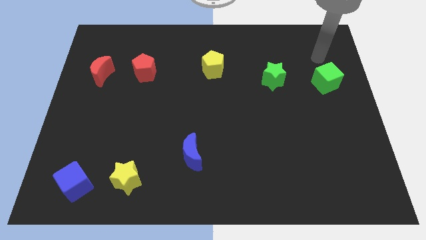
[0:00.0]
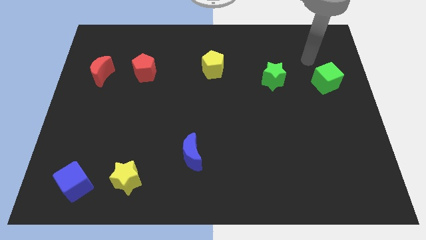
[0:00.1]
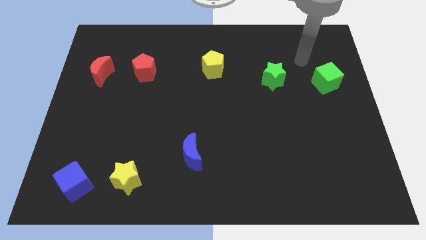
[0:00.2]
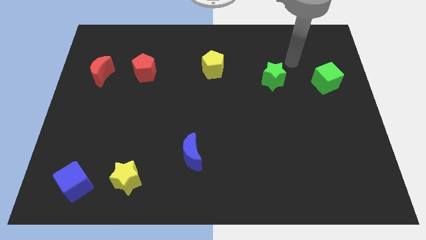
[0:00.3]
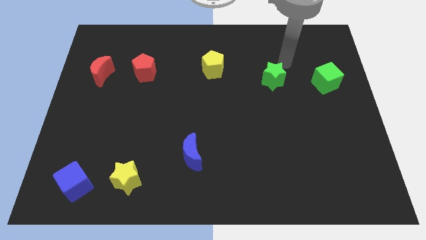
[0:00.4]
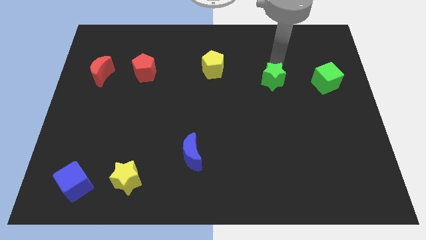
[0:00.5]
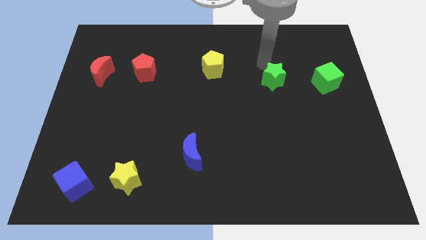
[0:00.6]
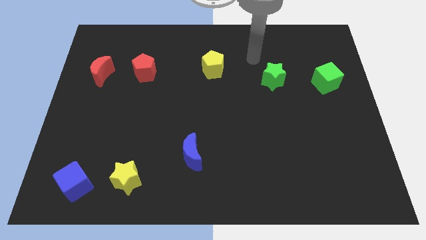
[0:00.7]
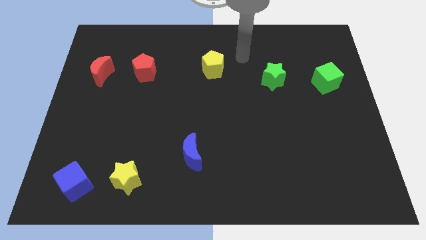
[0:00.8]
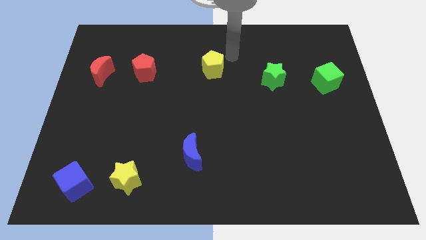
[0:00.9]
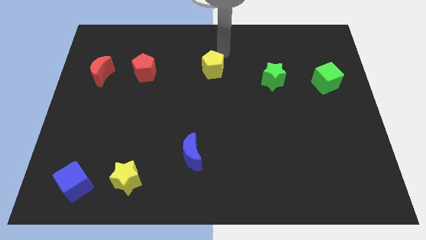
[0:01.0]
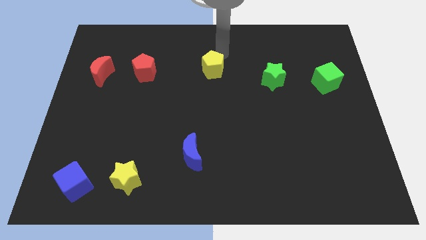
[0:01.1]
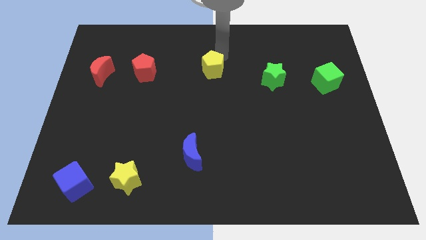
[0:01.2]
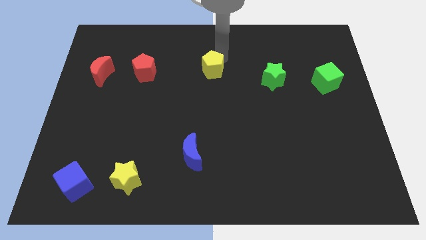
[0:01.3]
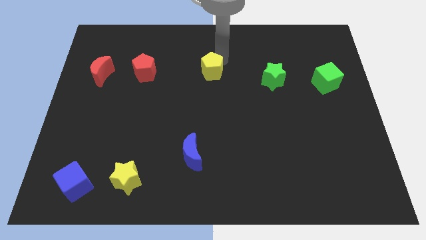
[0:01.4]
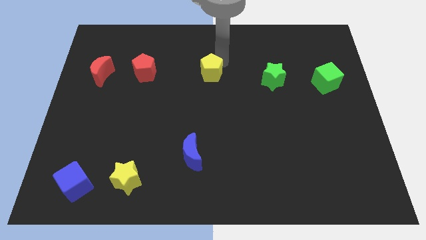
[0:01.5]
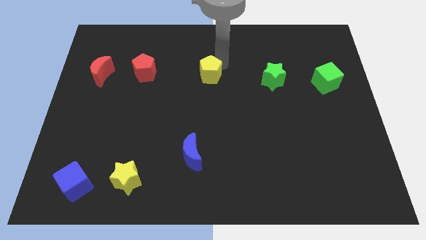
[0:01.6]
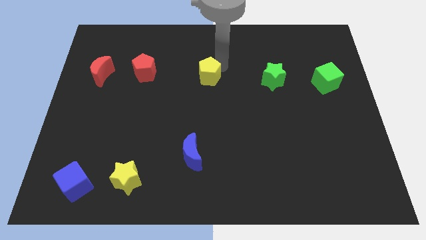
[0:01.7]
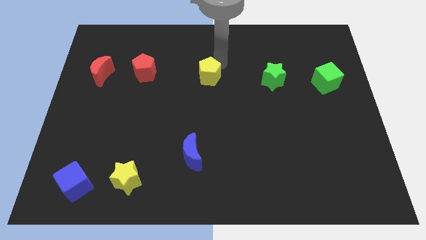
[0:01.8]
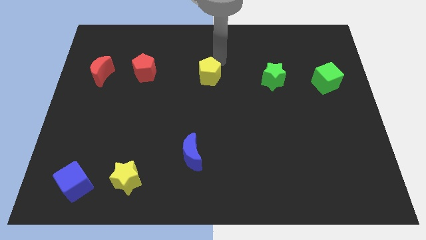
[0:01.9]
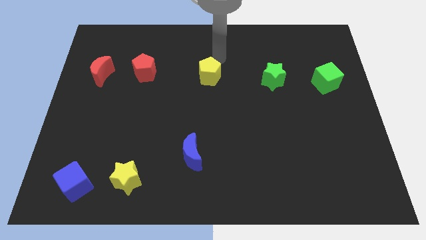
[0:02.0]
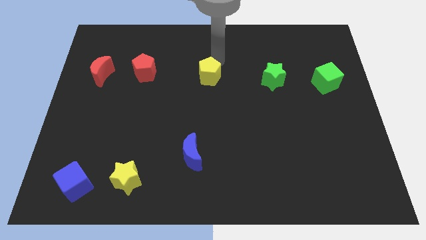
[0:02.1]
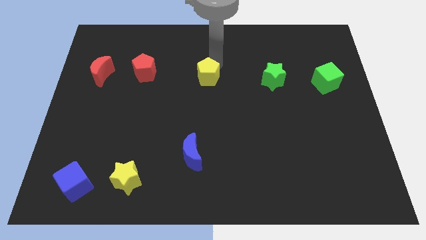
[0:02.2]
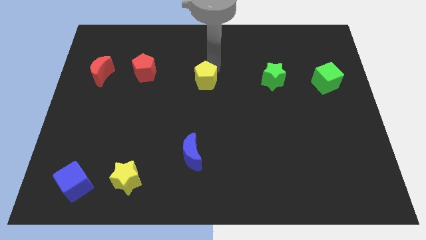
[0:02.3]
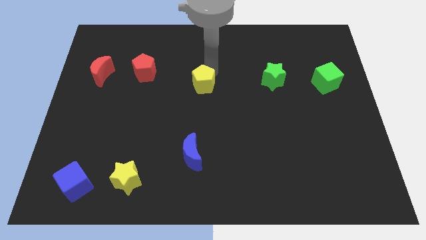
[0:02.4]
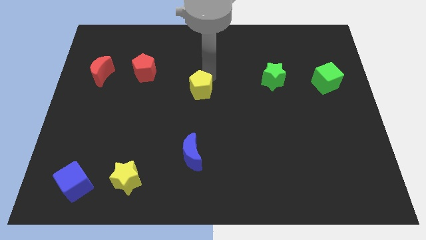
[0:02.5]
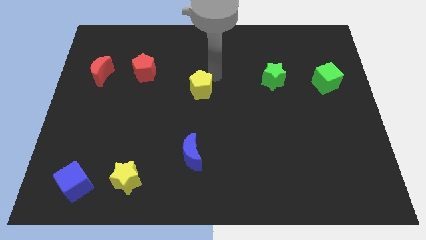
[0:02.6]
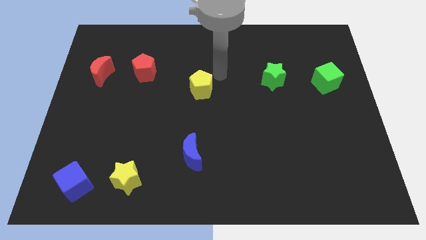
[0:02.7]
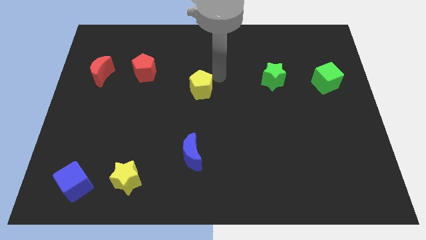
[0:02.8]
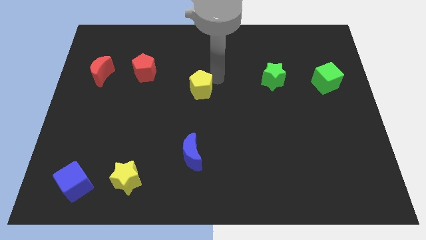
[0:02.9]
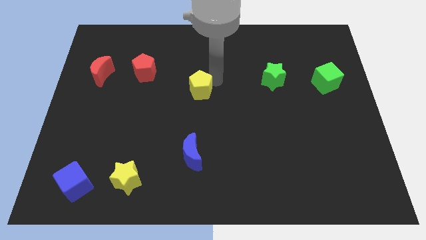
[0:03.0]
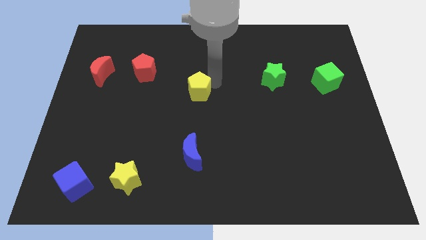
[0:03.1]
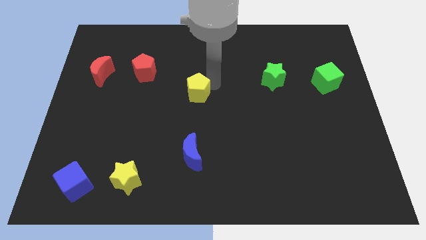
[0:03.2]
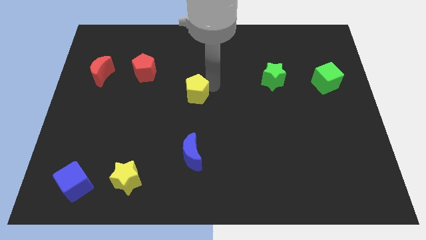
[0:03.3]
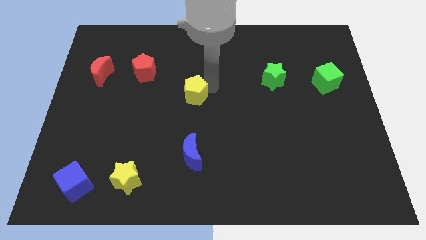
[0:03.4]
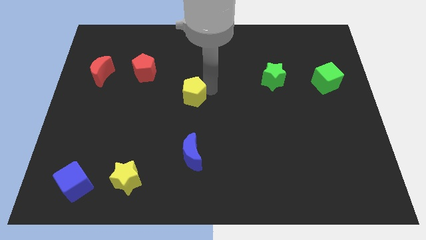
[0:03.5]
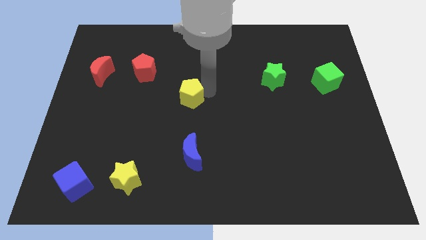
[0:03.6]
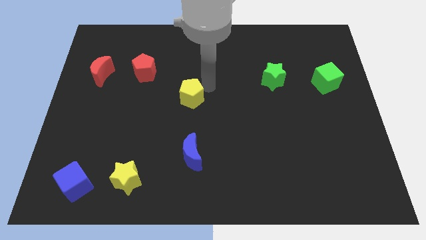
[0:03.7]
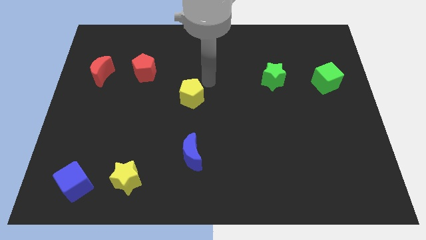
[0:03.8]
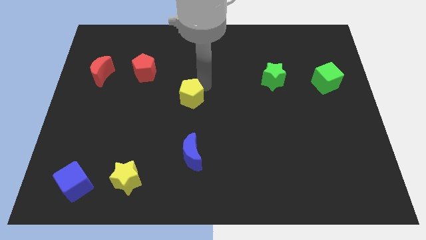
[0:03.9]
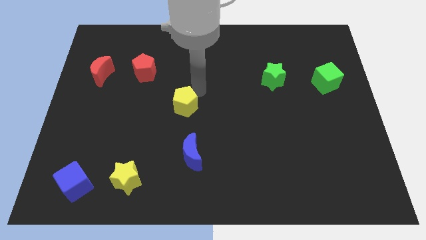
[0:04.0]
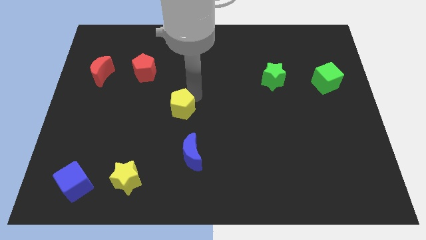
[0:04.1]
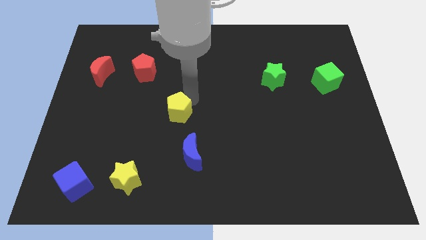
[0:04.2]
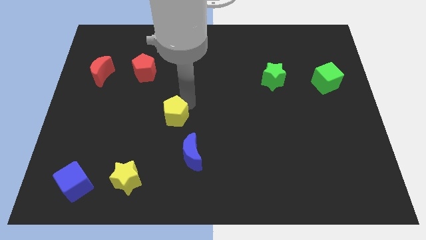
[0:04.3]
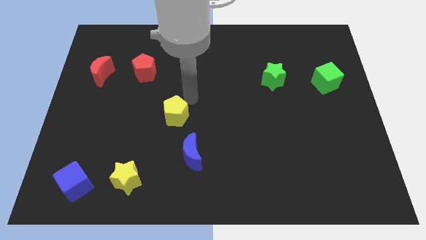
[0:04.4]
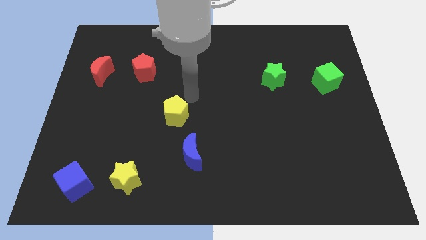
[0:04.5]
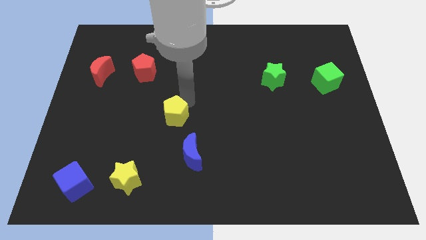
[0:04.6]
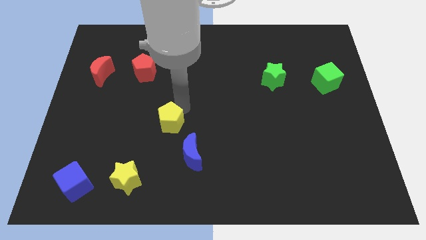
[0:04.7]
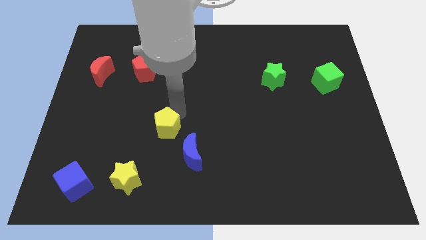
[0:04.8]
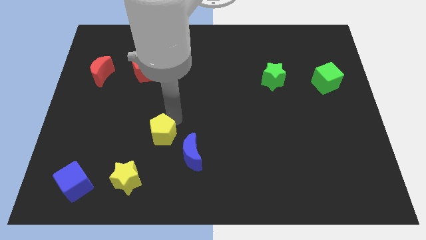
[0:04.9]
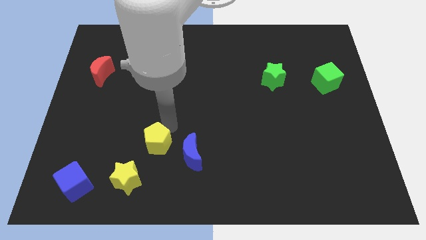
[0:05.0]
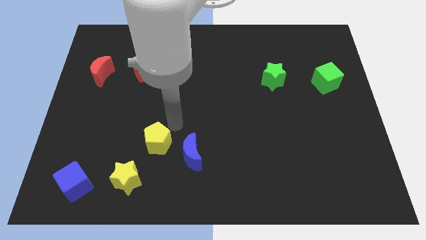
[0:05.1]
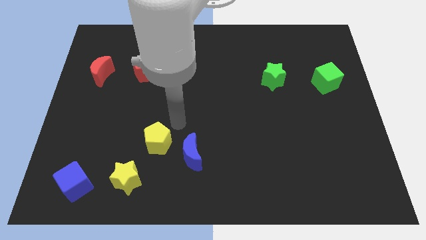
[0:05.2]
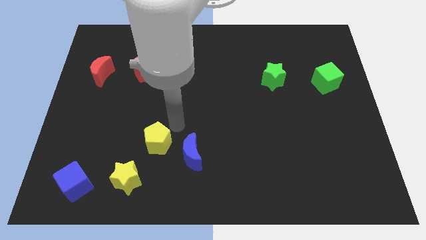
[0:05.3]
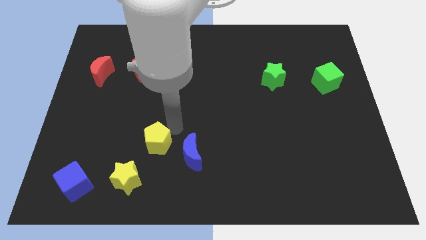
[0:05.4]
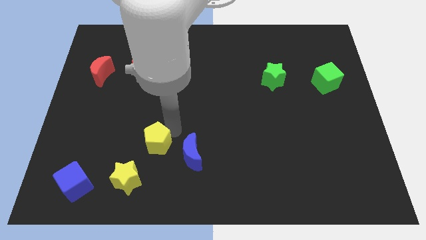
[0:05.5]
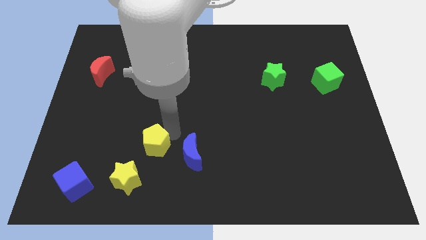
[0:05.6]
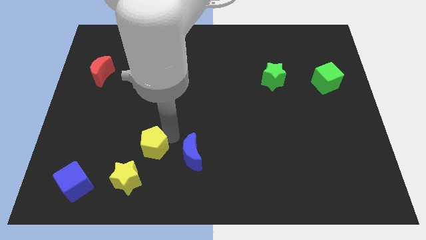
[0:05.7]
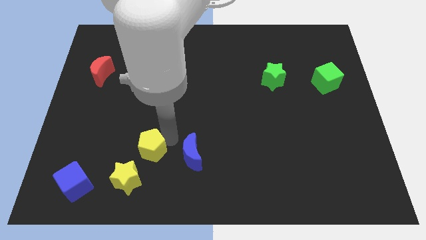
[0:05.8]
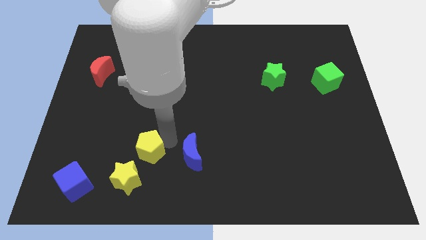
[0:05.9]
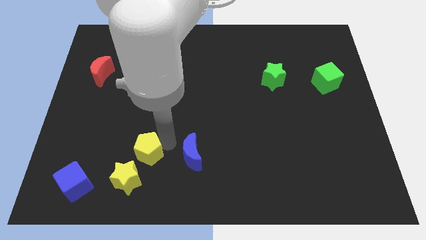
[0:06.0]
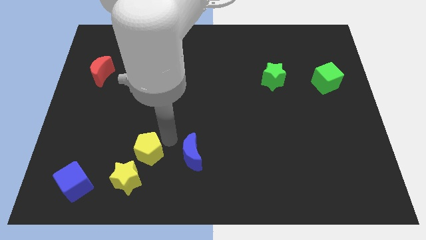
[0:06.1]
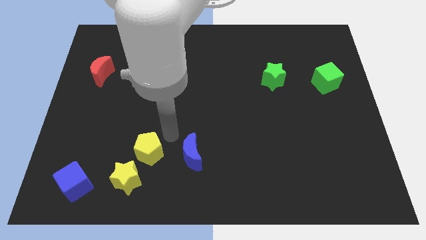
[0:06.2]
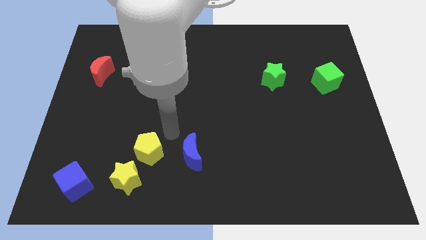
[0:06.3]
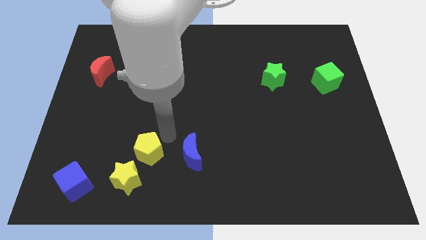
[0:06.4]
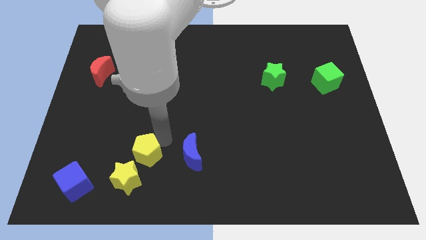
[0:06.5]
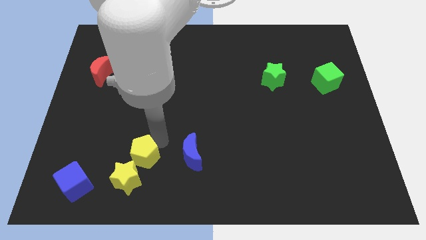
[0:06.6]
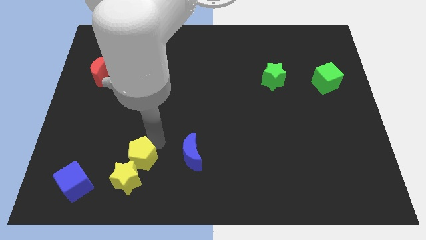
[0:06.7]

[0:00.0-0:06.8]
push the yellow pentagon to the yellow star
